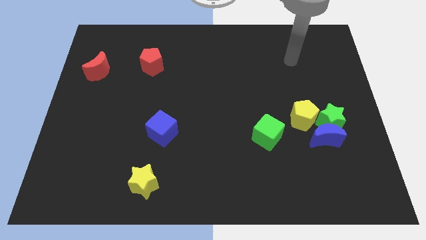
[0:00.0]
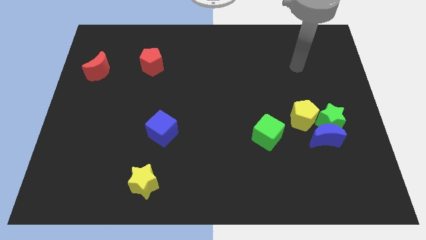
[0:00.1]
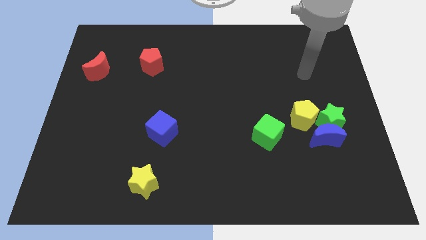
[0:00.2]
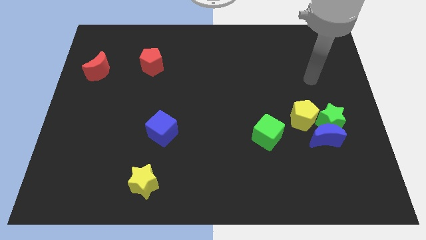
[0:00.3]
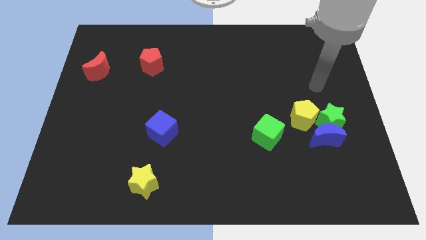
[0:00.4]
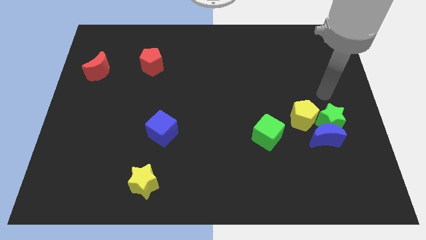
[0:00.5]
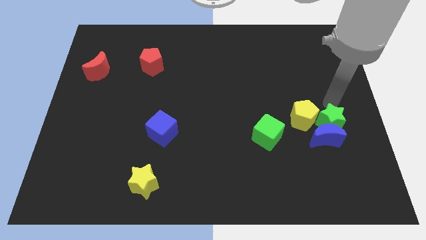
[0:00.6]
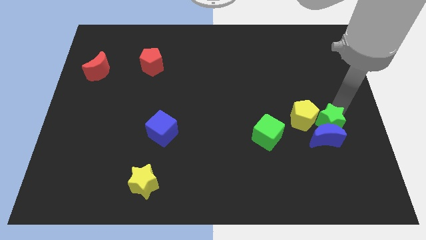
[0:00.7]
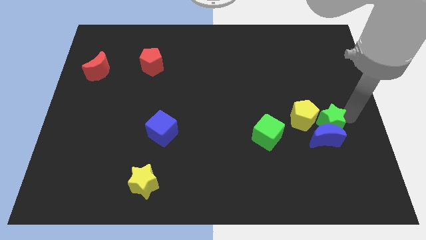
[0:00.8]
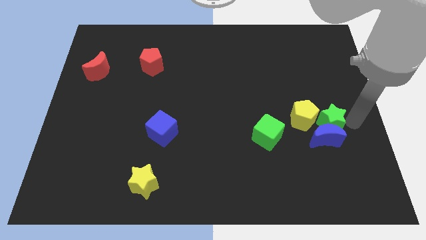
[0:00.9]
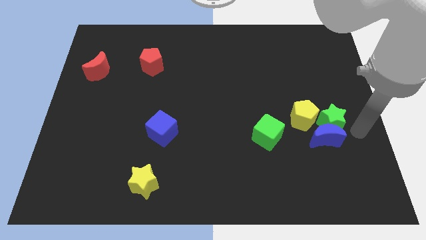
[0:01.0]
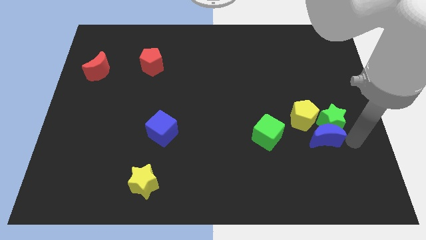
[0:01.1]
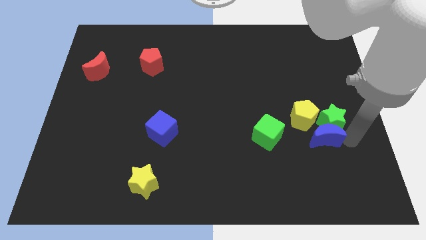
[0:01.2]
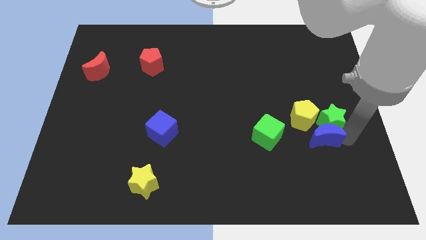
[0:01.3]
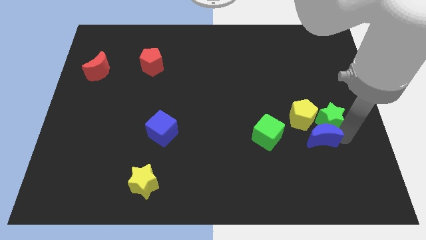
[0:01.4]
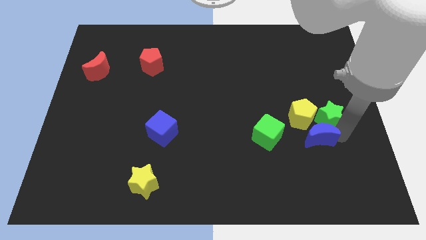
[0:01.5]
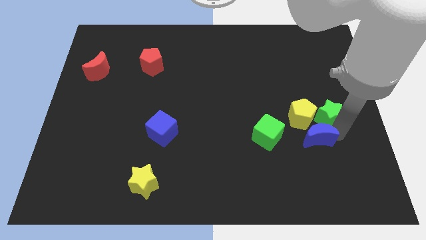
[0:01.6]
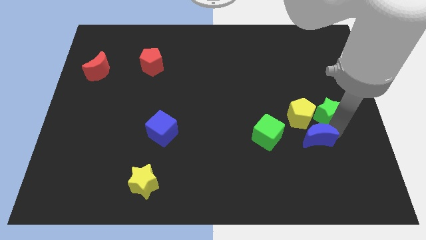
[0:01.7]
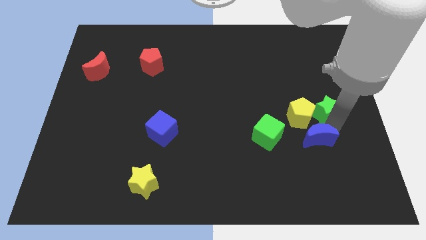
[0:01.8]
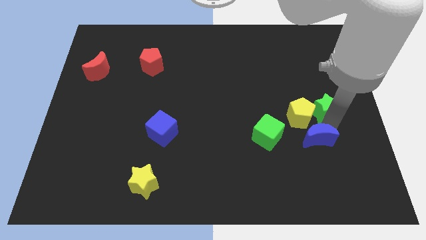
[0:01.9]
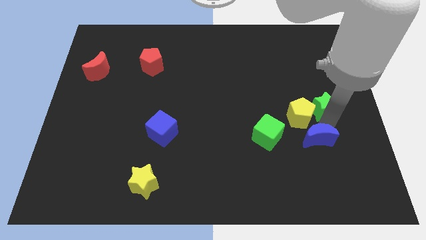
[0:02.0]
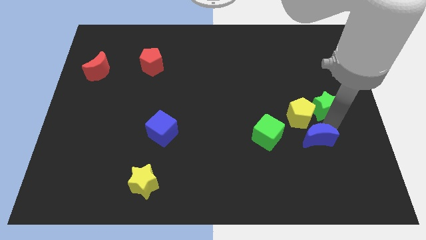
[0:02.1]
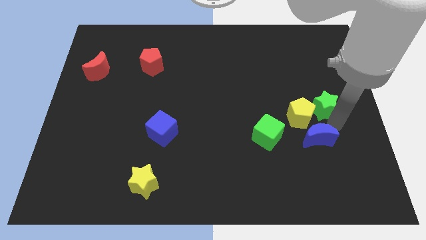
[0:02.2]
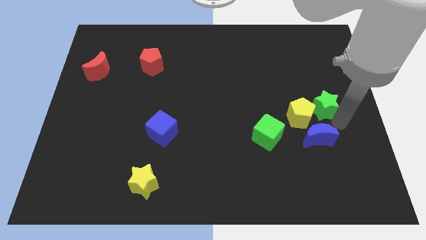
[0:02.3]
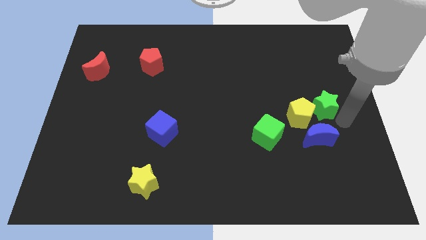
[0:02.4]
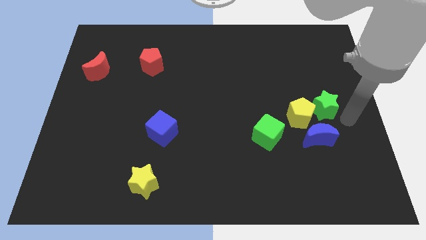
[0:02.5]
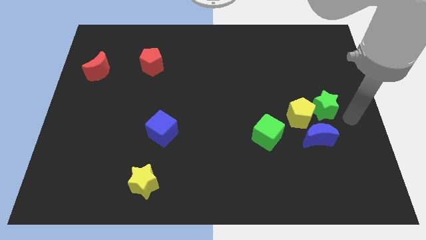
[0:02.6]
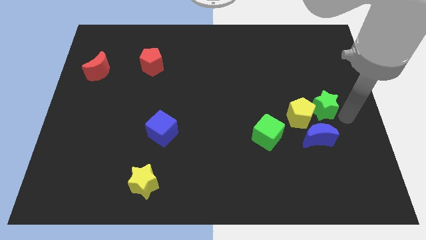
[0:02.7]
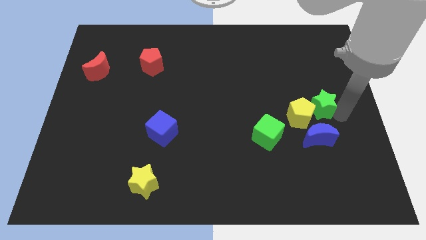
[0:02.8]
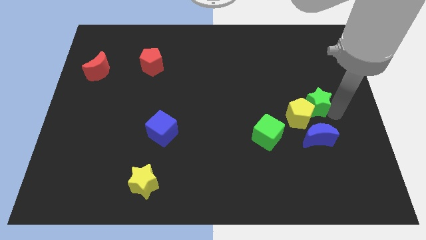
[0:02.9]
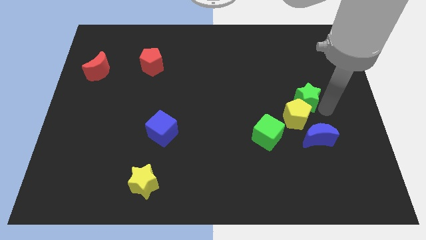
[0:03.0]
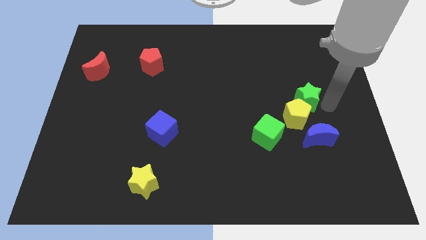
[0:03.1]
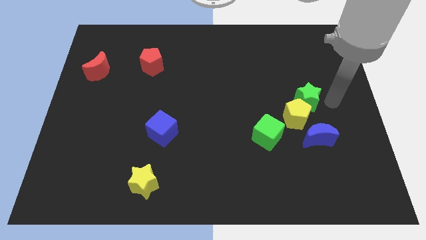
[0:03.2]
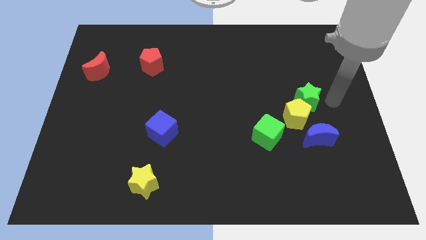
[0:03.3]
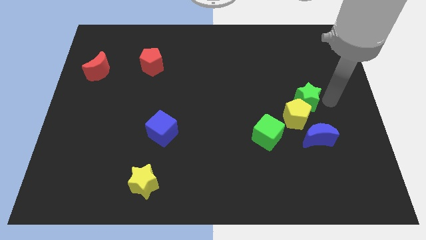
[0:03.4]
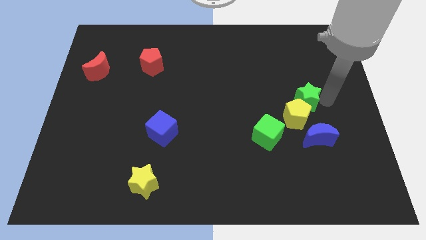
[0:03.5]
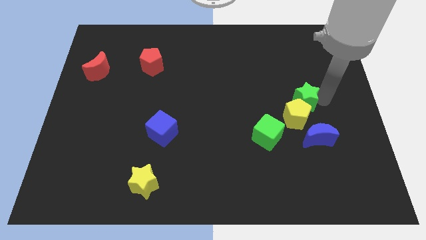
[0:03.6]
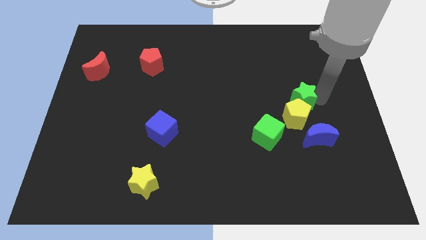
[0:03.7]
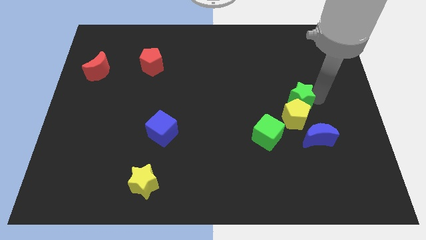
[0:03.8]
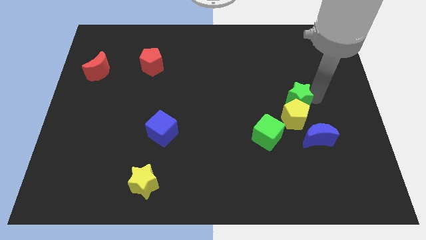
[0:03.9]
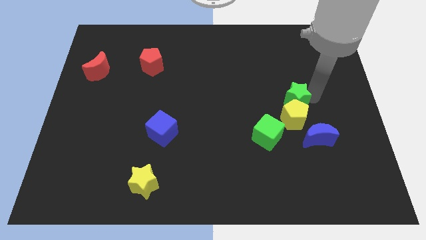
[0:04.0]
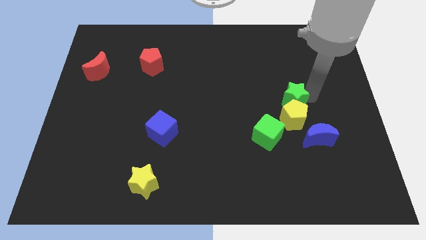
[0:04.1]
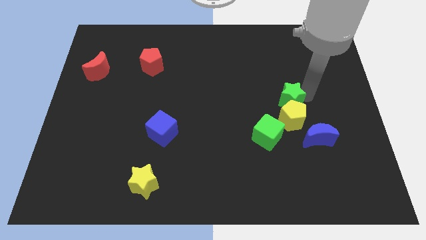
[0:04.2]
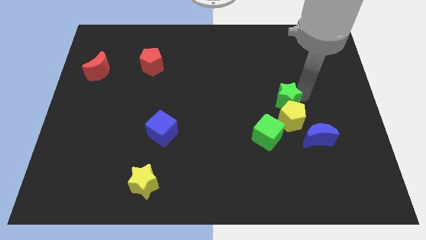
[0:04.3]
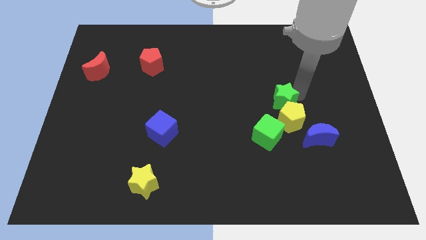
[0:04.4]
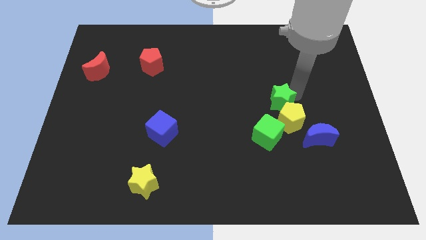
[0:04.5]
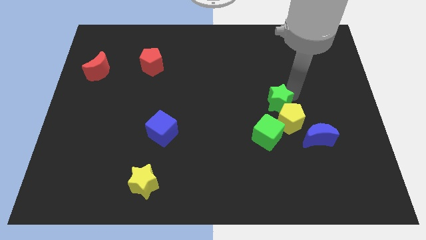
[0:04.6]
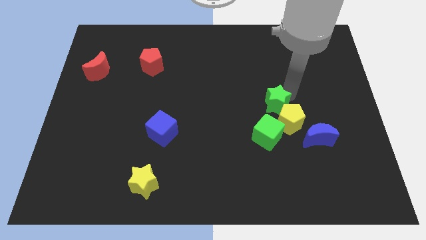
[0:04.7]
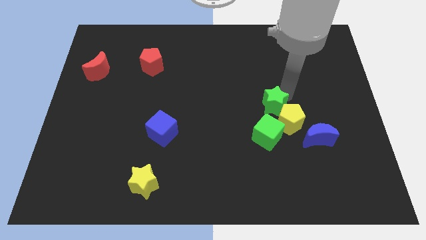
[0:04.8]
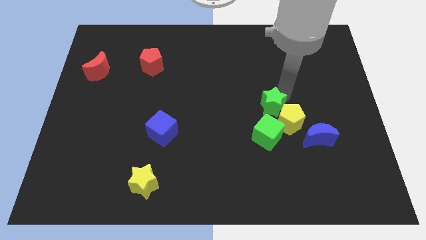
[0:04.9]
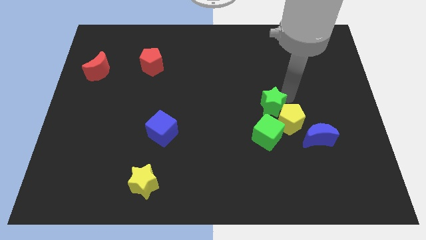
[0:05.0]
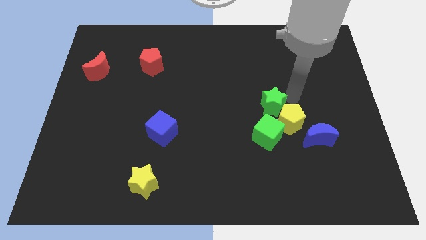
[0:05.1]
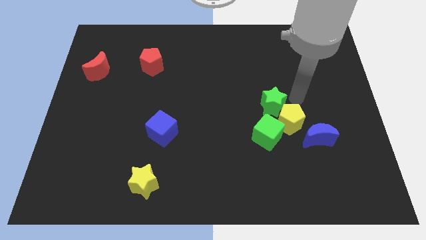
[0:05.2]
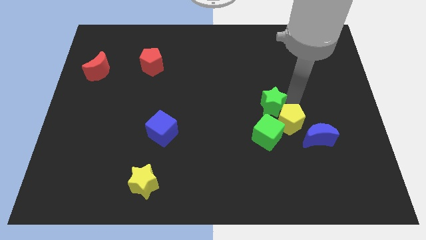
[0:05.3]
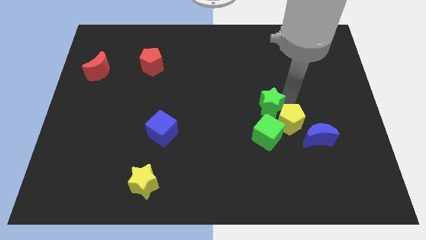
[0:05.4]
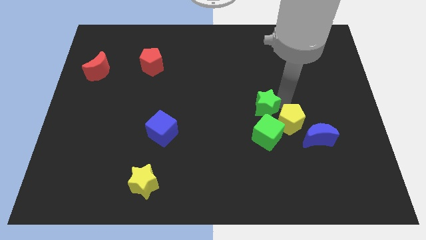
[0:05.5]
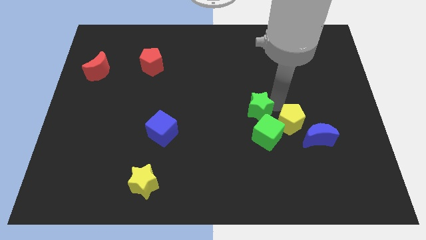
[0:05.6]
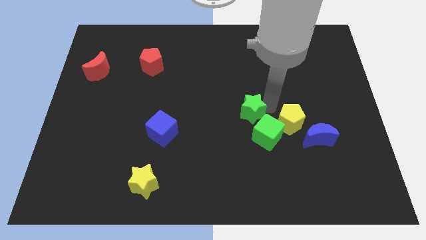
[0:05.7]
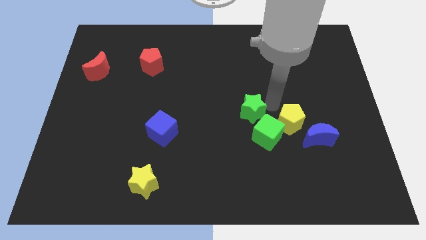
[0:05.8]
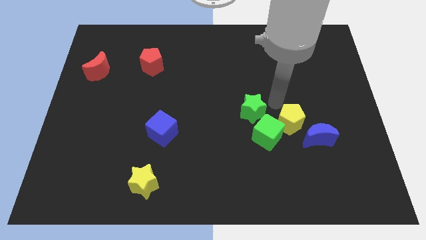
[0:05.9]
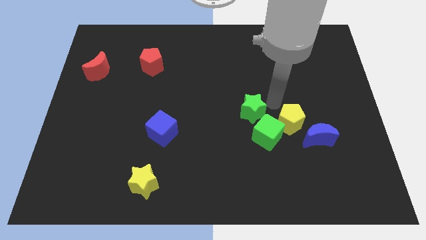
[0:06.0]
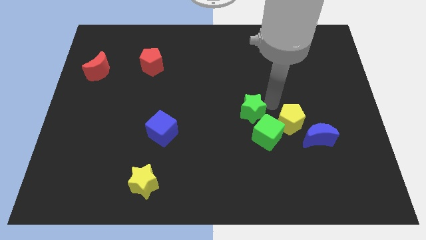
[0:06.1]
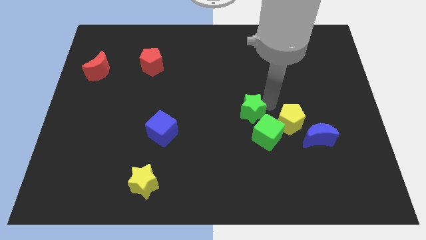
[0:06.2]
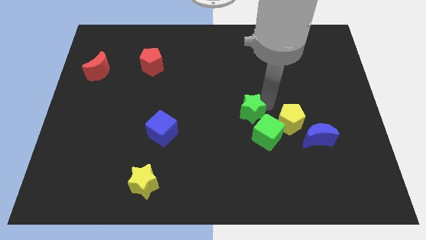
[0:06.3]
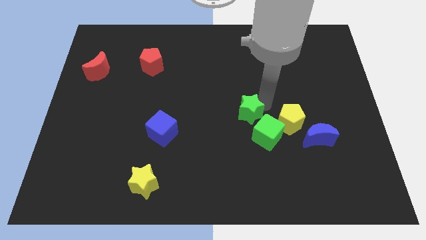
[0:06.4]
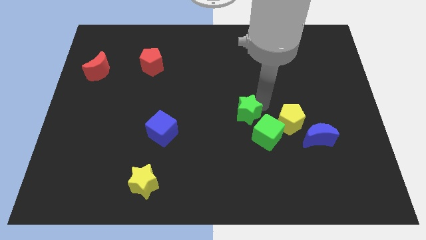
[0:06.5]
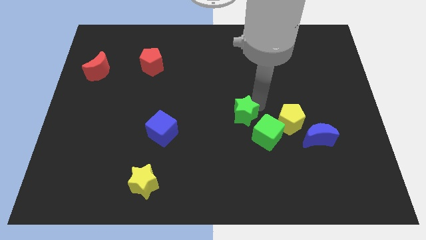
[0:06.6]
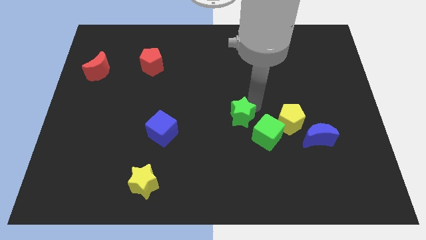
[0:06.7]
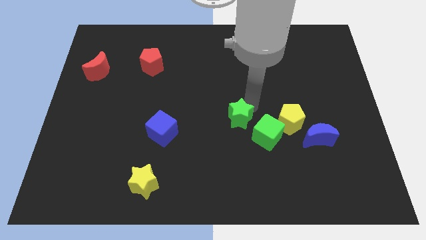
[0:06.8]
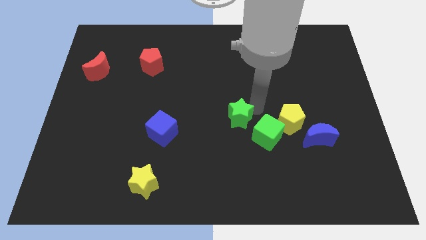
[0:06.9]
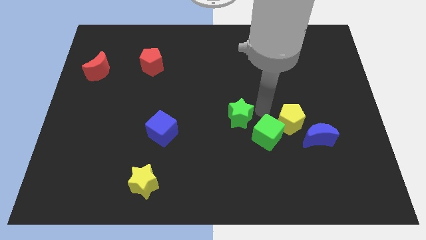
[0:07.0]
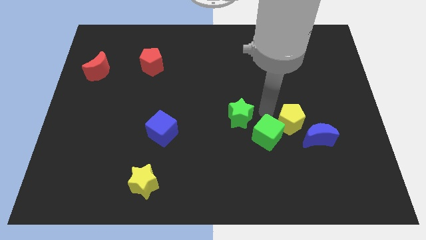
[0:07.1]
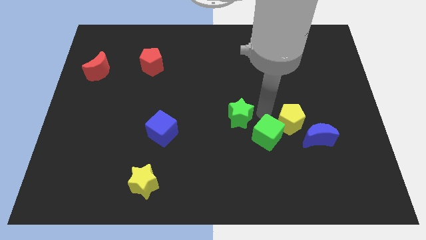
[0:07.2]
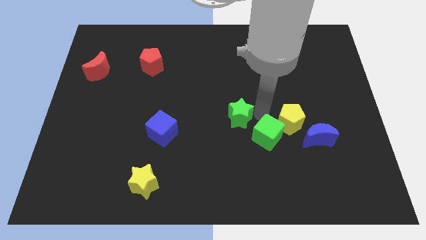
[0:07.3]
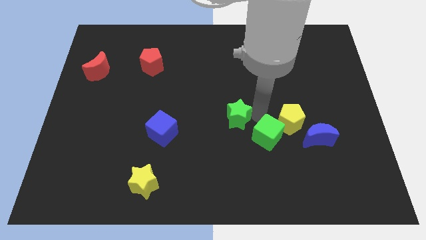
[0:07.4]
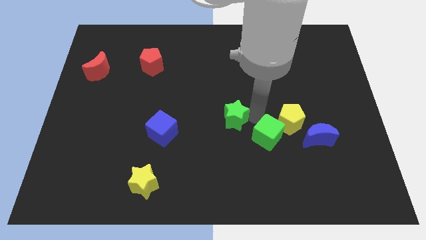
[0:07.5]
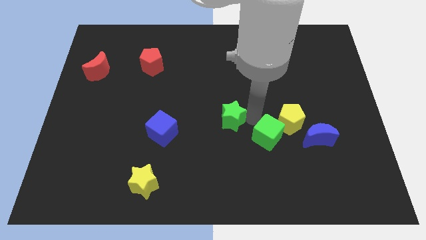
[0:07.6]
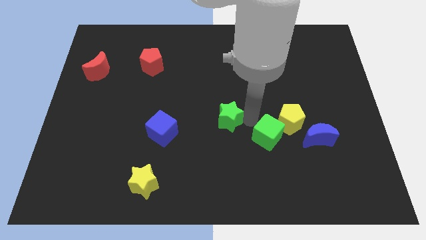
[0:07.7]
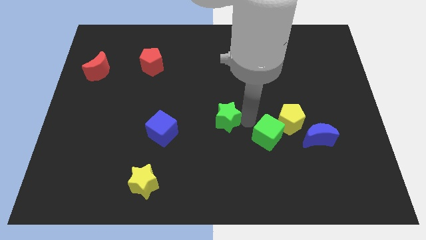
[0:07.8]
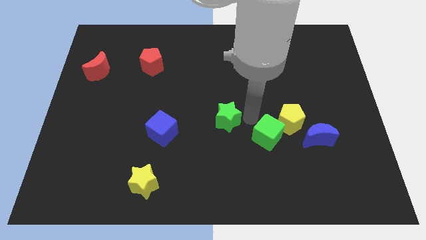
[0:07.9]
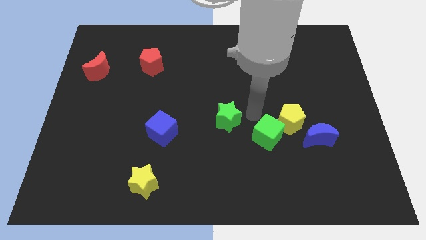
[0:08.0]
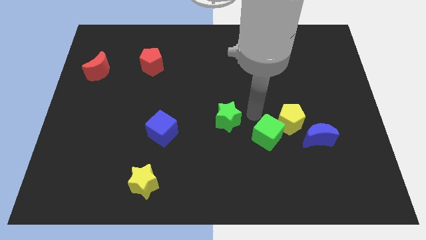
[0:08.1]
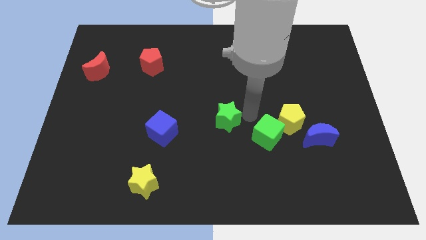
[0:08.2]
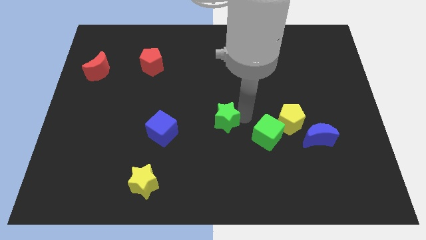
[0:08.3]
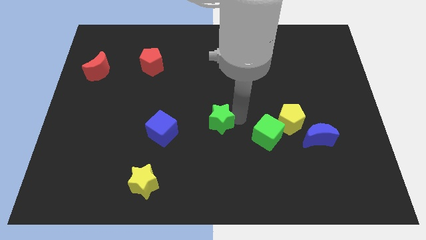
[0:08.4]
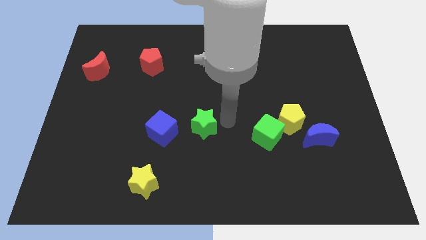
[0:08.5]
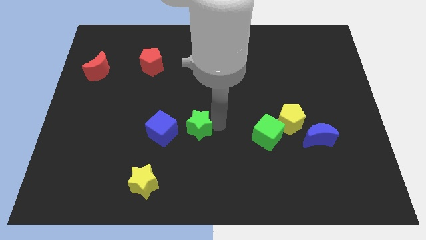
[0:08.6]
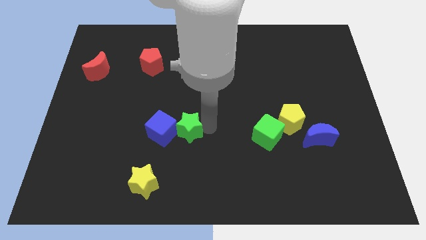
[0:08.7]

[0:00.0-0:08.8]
push the green star to the blue cube
